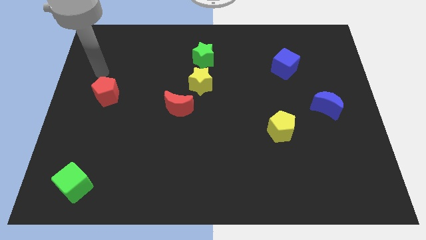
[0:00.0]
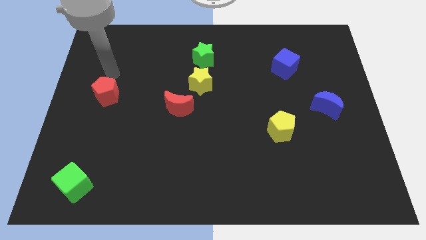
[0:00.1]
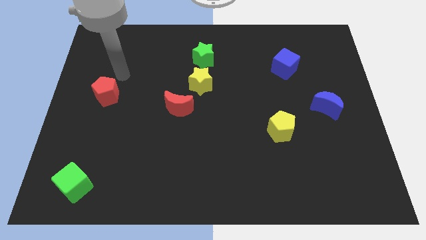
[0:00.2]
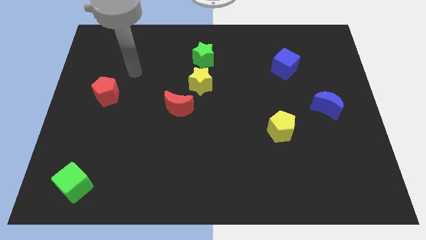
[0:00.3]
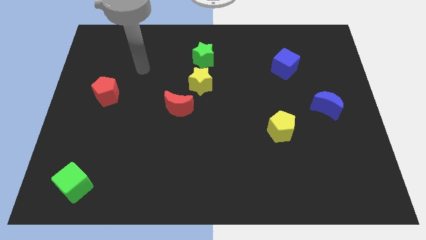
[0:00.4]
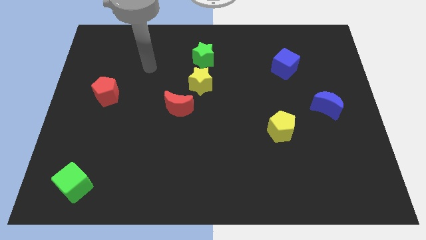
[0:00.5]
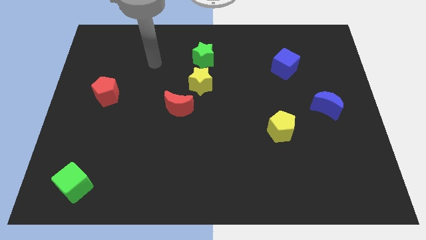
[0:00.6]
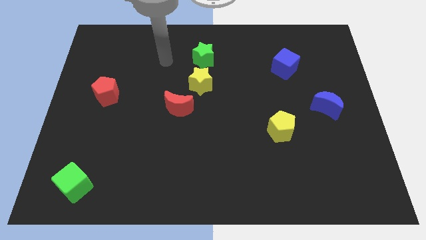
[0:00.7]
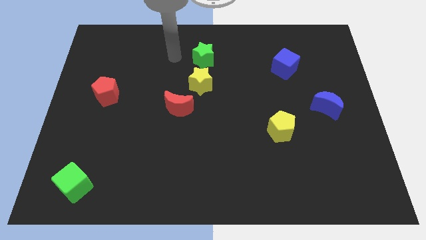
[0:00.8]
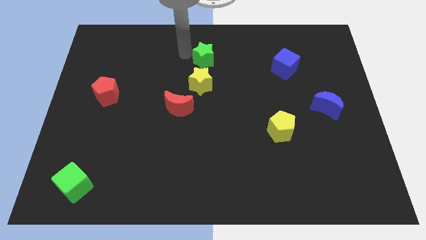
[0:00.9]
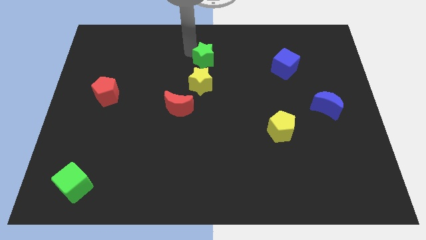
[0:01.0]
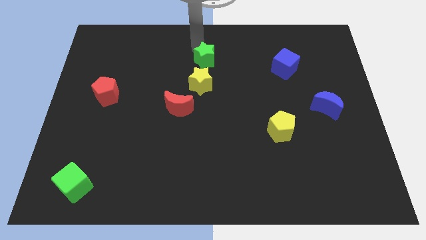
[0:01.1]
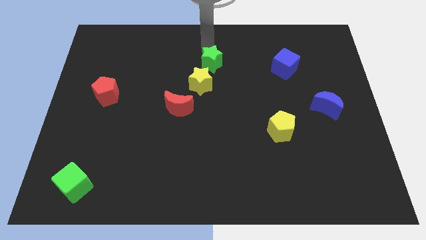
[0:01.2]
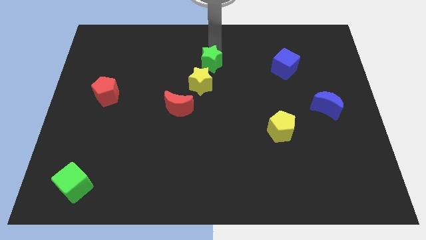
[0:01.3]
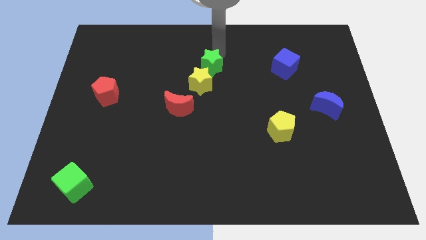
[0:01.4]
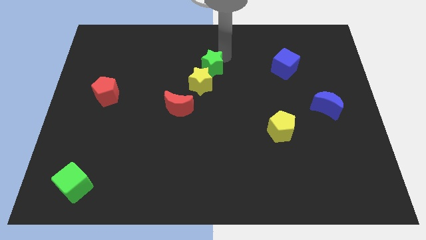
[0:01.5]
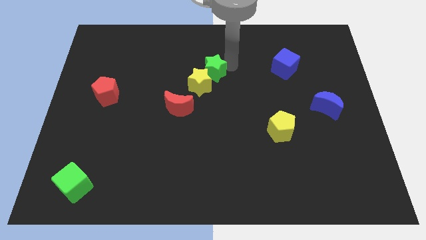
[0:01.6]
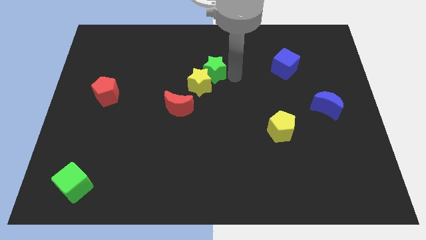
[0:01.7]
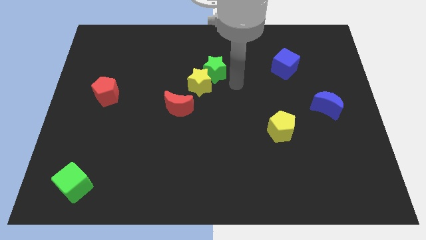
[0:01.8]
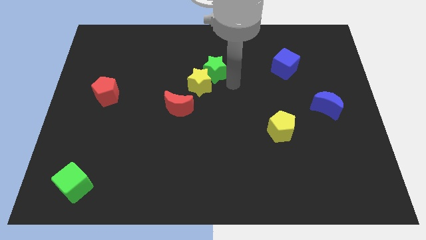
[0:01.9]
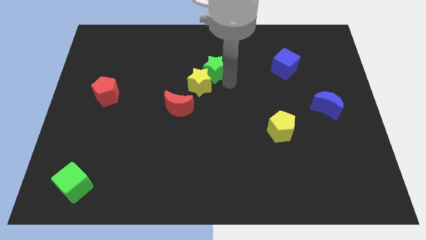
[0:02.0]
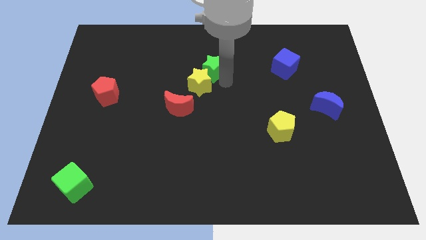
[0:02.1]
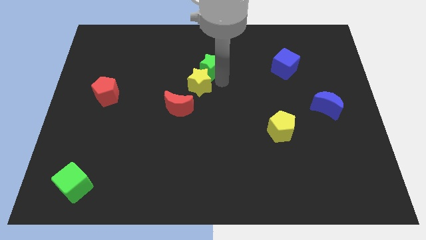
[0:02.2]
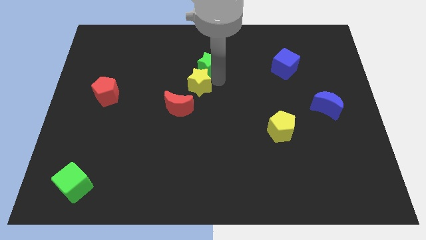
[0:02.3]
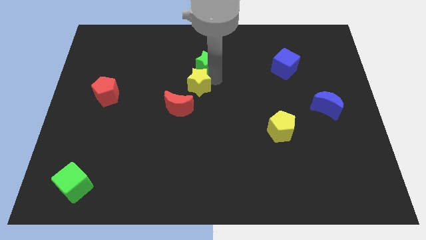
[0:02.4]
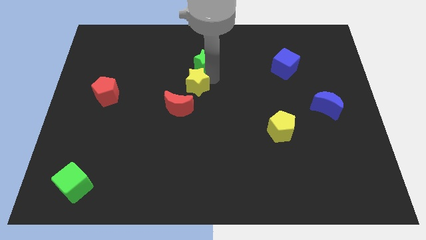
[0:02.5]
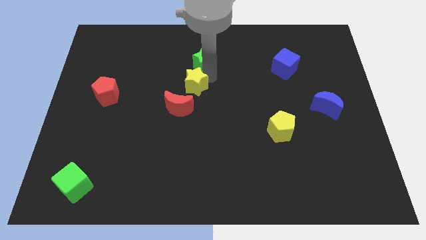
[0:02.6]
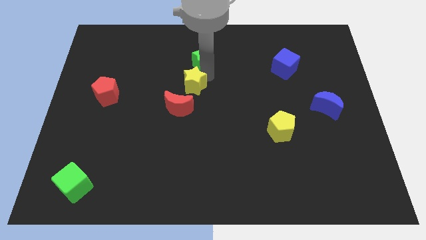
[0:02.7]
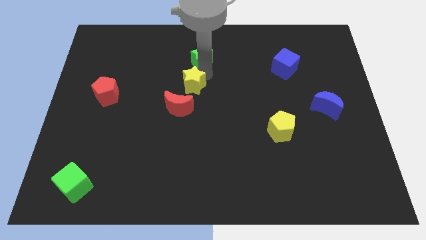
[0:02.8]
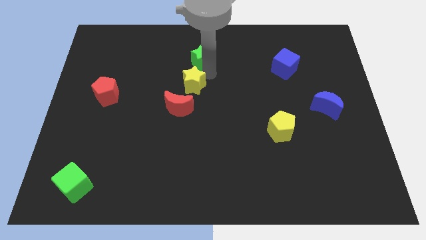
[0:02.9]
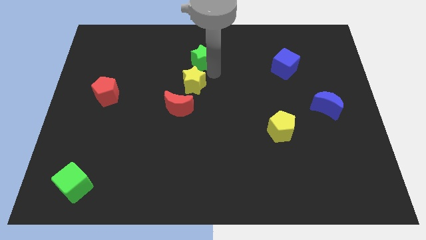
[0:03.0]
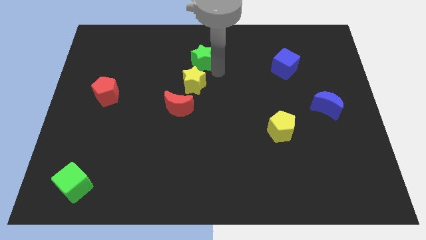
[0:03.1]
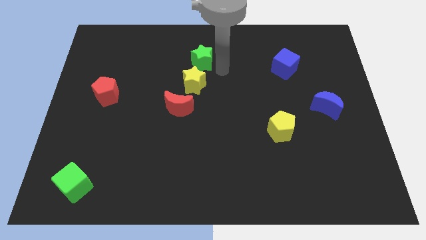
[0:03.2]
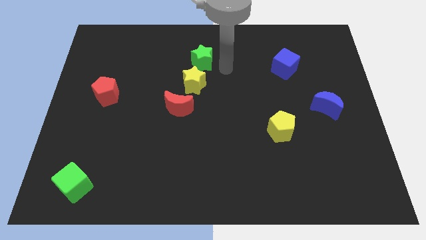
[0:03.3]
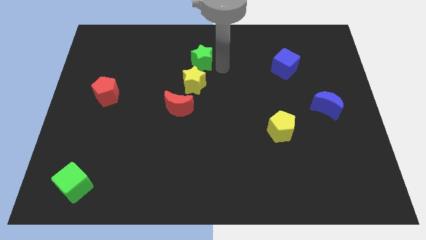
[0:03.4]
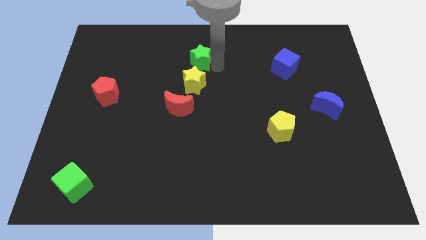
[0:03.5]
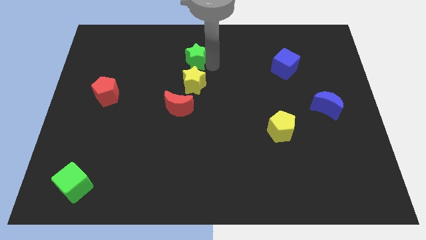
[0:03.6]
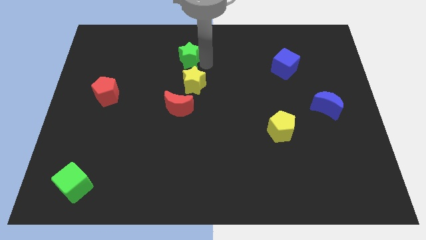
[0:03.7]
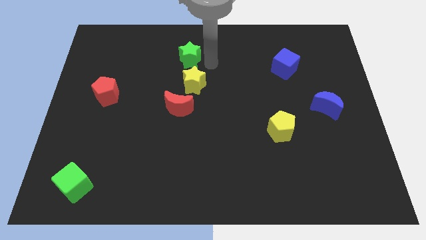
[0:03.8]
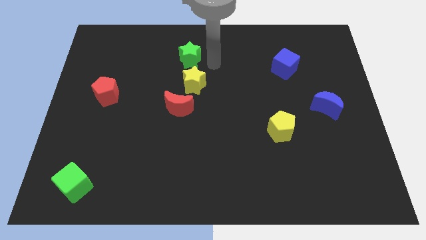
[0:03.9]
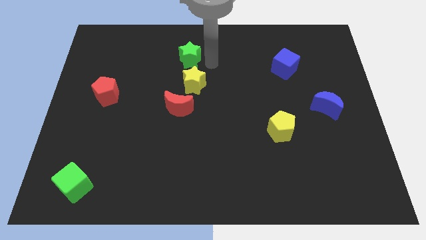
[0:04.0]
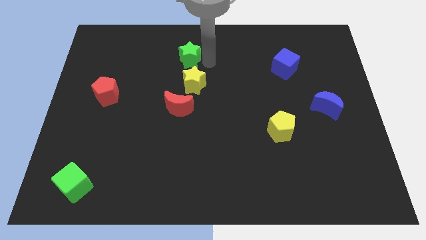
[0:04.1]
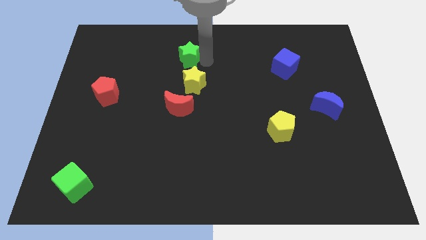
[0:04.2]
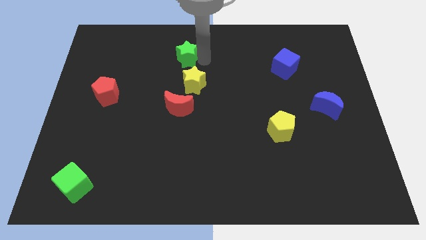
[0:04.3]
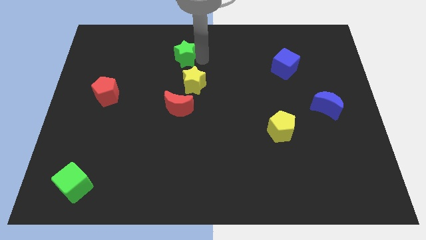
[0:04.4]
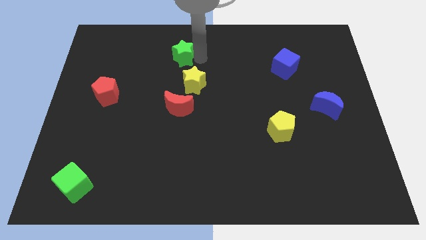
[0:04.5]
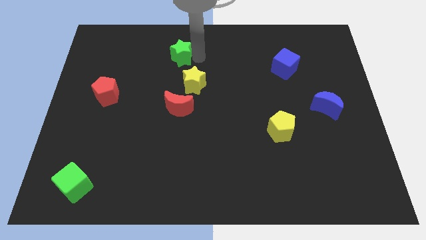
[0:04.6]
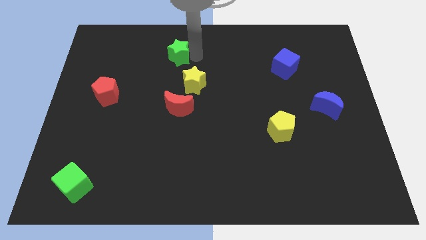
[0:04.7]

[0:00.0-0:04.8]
slide the green star to the left somewhat

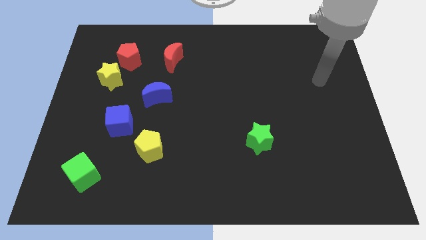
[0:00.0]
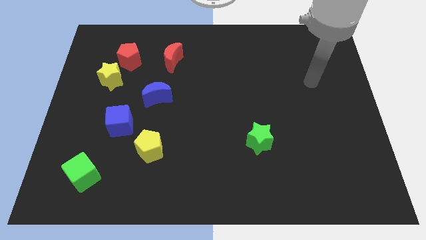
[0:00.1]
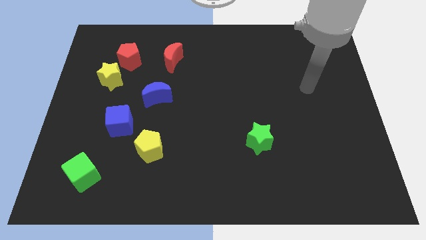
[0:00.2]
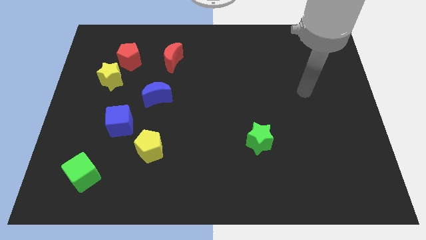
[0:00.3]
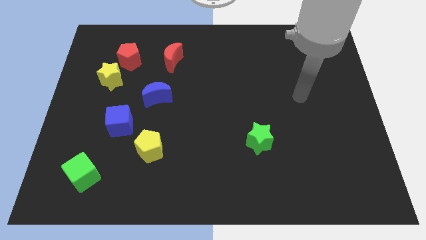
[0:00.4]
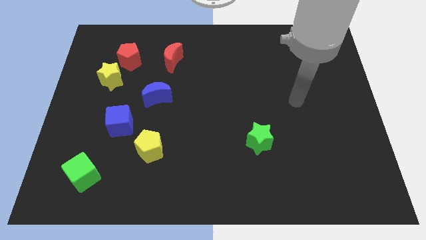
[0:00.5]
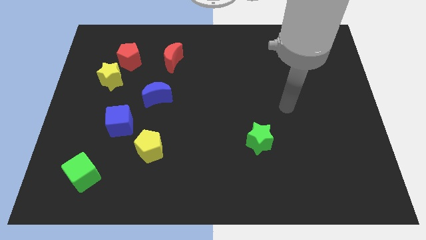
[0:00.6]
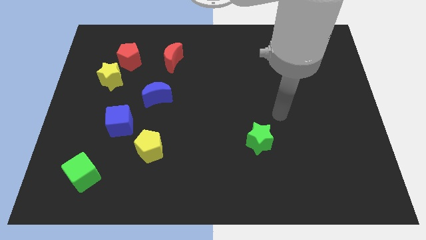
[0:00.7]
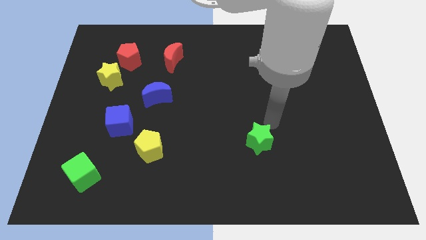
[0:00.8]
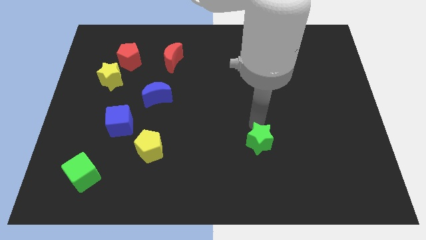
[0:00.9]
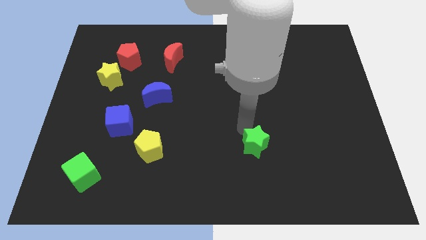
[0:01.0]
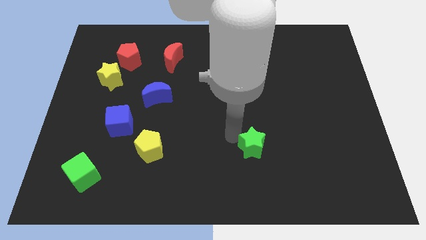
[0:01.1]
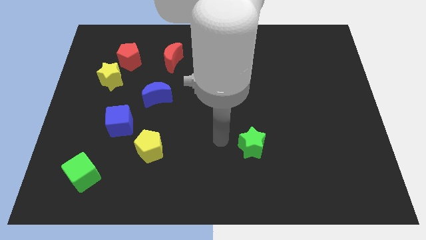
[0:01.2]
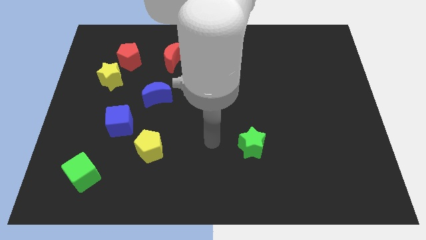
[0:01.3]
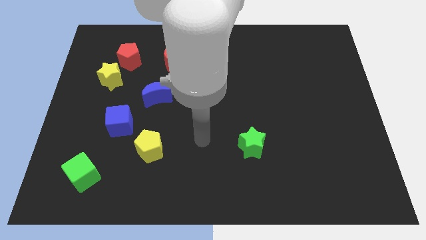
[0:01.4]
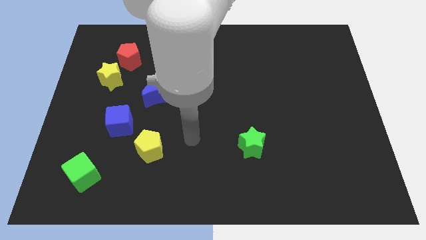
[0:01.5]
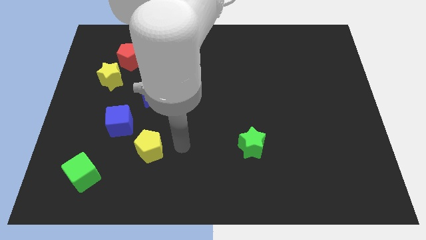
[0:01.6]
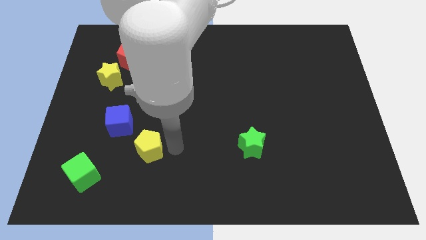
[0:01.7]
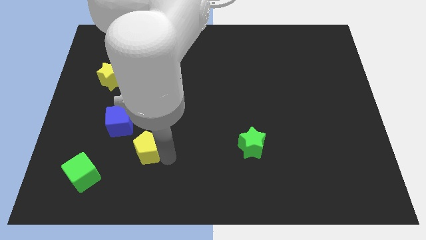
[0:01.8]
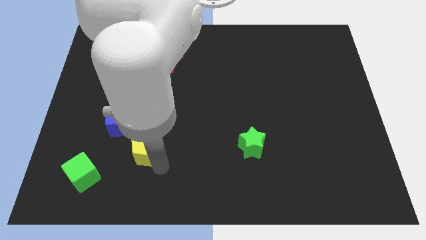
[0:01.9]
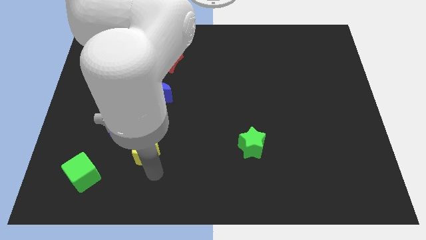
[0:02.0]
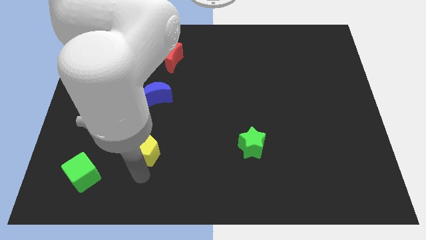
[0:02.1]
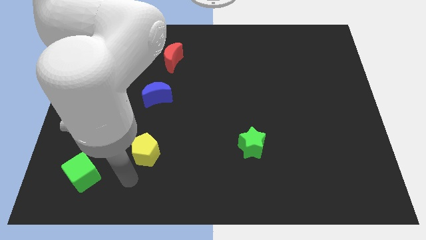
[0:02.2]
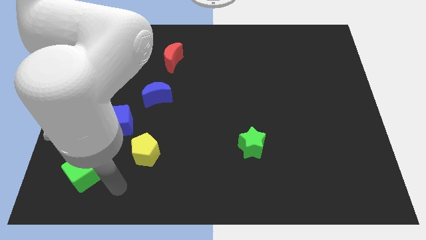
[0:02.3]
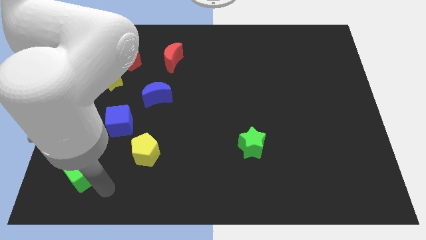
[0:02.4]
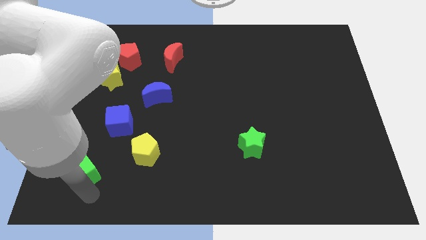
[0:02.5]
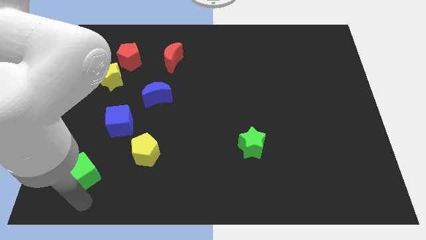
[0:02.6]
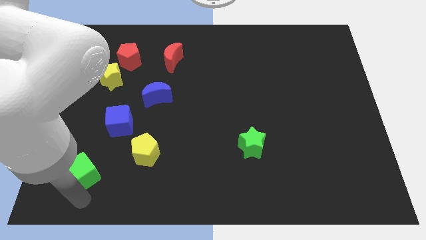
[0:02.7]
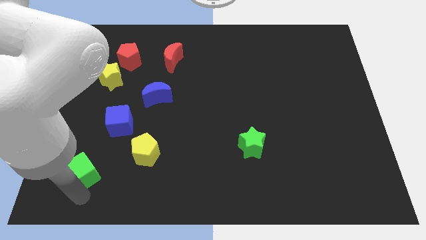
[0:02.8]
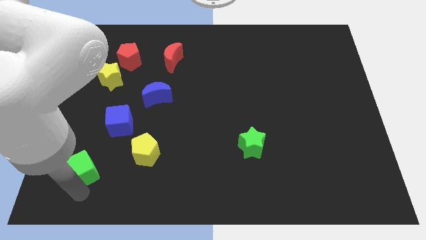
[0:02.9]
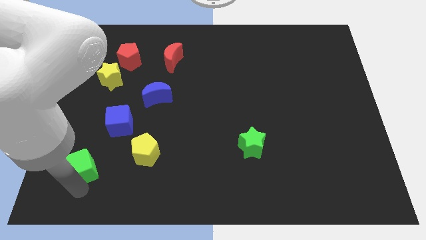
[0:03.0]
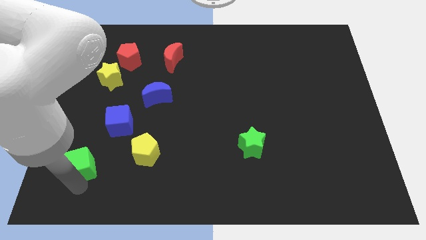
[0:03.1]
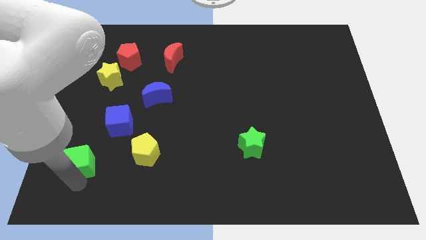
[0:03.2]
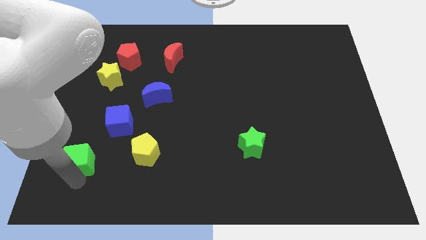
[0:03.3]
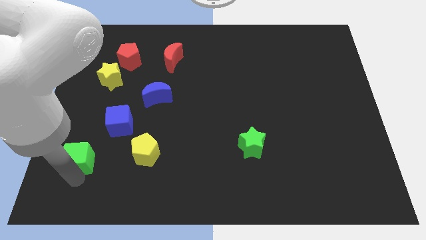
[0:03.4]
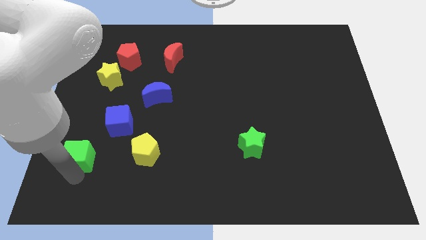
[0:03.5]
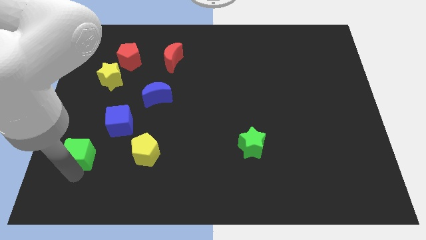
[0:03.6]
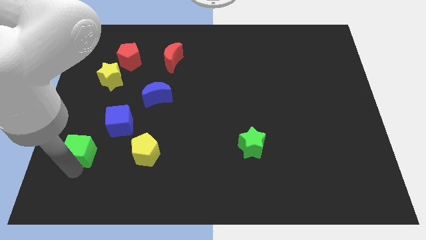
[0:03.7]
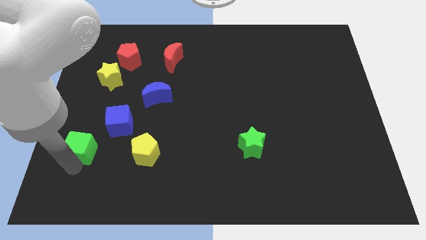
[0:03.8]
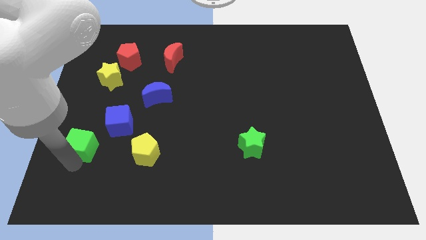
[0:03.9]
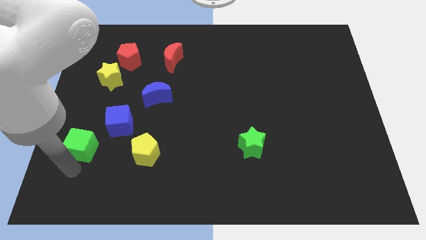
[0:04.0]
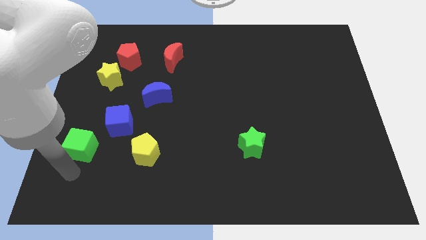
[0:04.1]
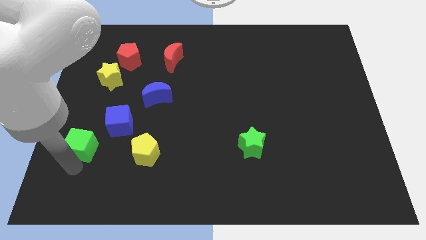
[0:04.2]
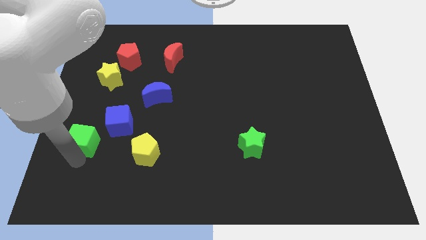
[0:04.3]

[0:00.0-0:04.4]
slide the green cube up slightly
